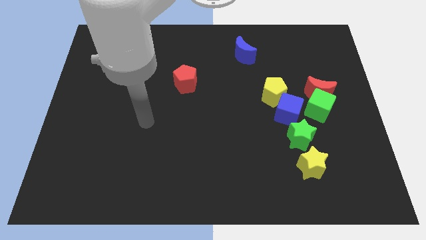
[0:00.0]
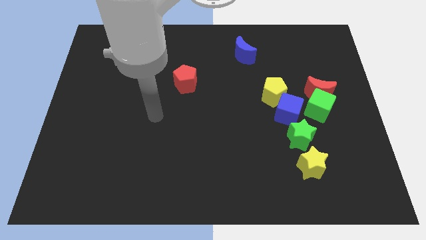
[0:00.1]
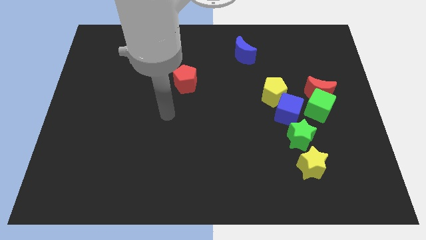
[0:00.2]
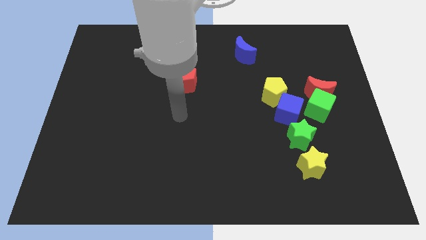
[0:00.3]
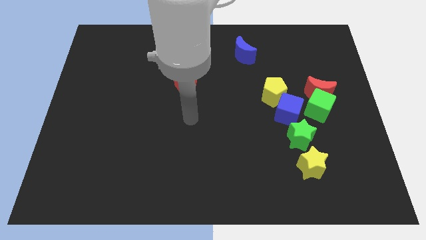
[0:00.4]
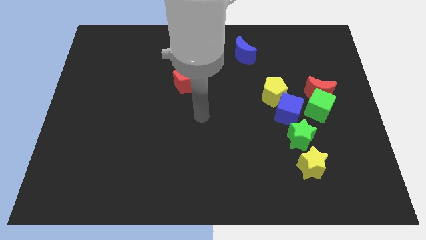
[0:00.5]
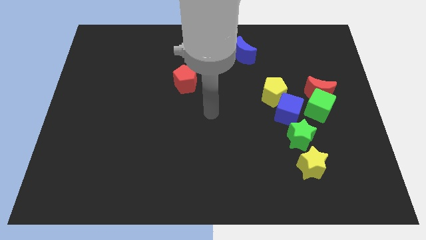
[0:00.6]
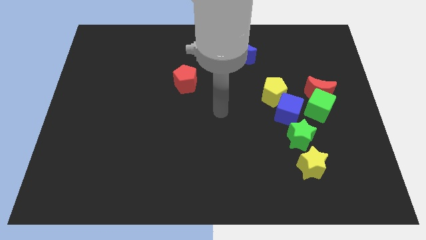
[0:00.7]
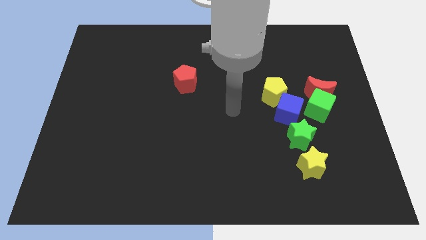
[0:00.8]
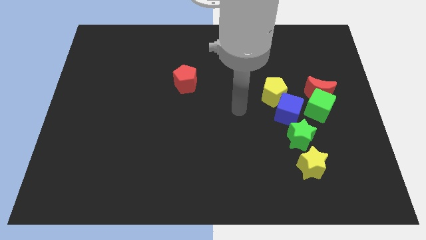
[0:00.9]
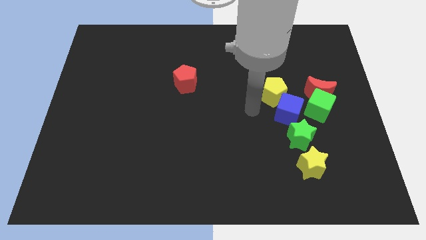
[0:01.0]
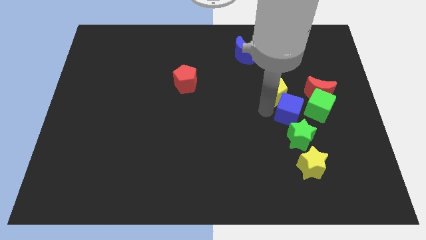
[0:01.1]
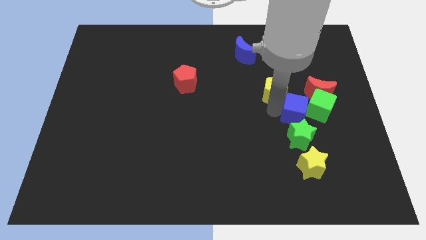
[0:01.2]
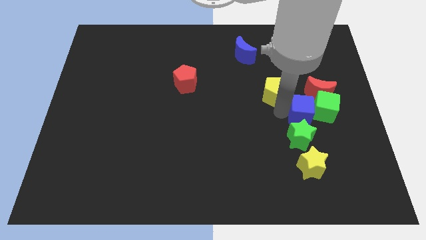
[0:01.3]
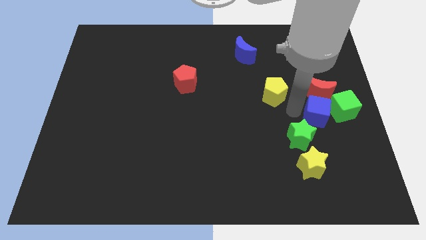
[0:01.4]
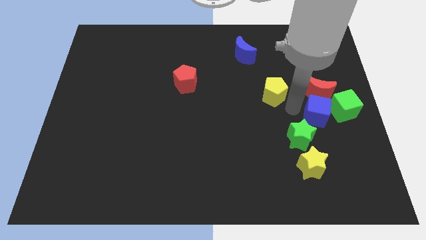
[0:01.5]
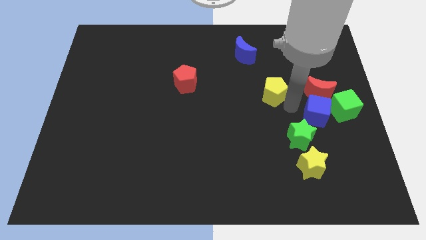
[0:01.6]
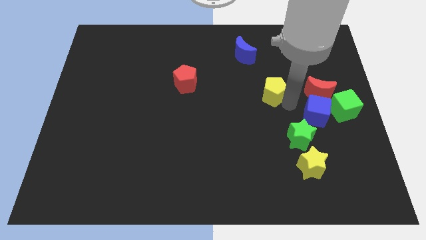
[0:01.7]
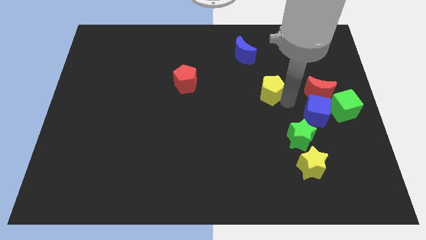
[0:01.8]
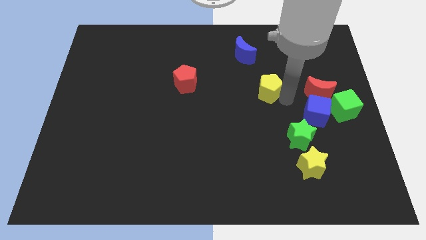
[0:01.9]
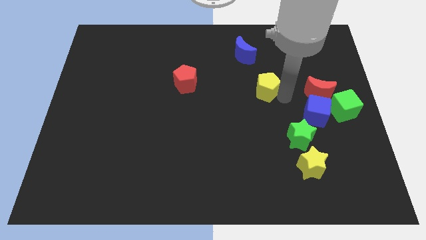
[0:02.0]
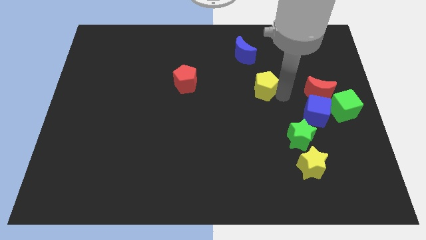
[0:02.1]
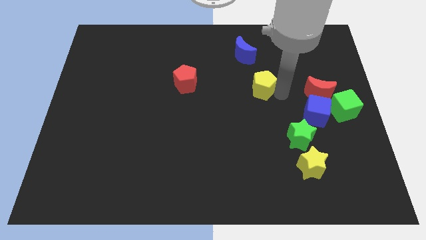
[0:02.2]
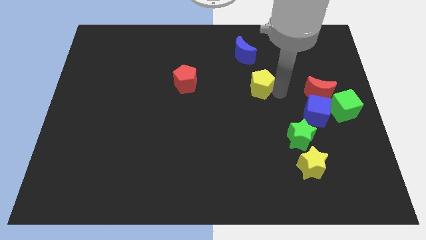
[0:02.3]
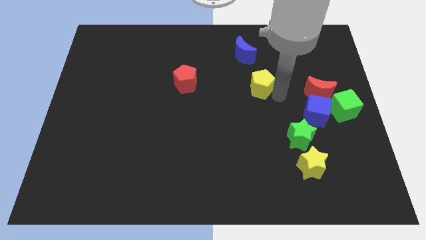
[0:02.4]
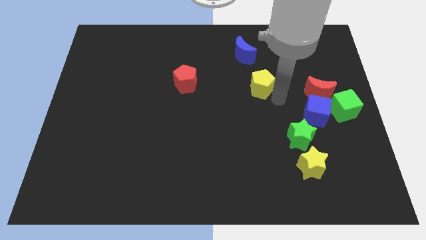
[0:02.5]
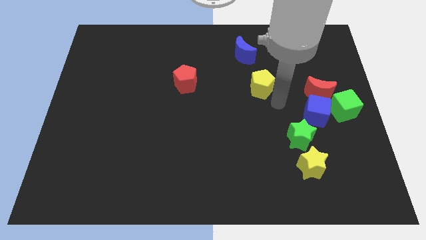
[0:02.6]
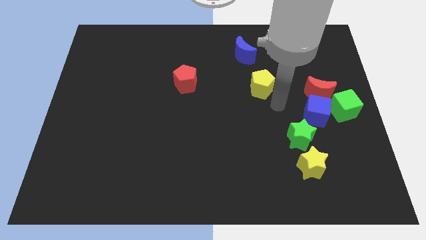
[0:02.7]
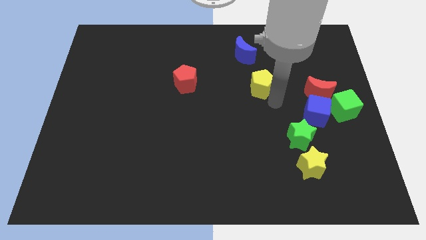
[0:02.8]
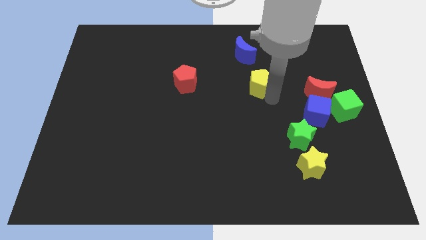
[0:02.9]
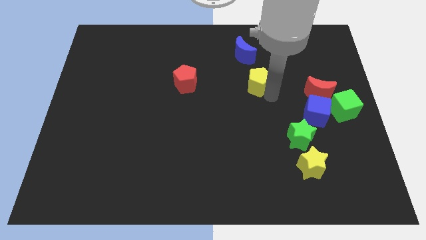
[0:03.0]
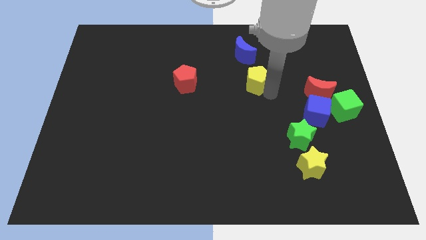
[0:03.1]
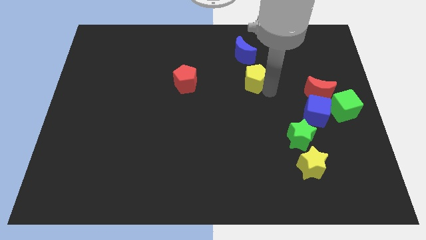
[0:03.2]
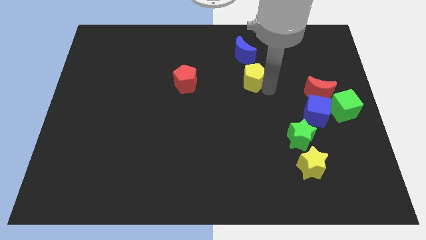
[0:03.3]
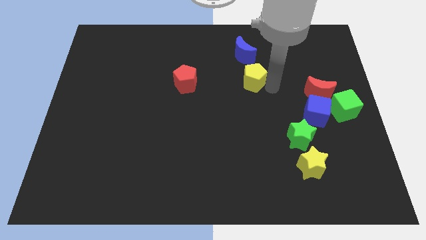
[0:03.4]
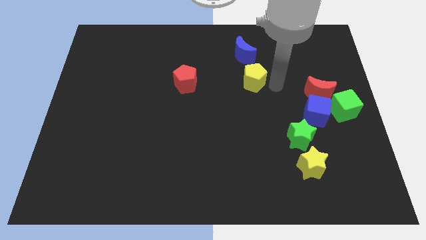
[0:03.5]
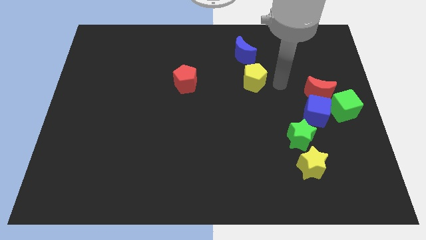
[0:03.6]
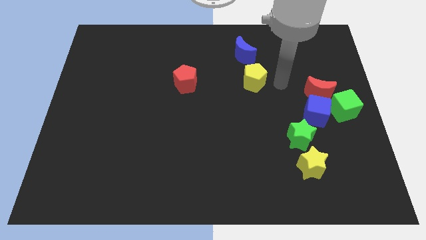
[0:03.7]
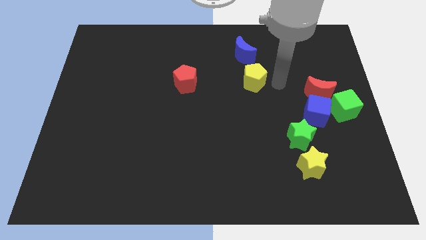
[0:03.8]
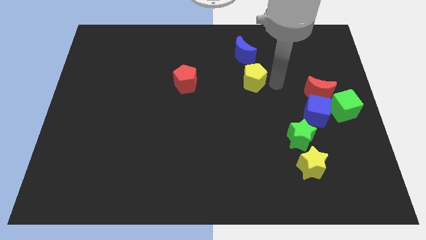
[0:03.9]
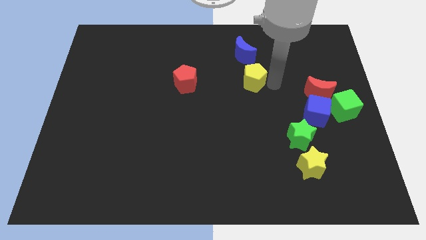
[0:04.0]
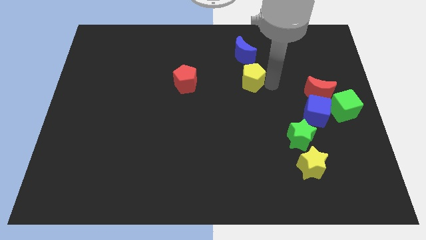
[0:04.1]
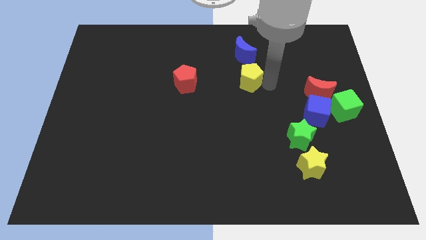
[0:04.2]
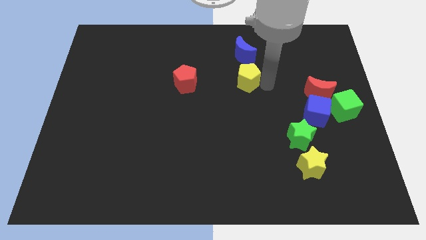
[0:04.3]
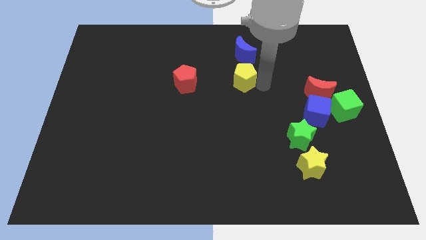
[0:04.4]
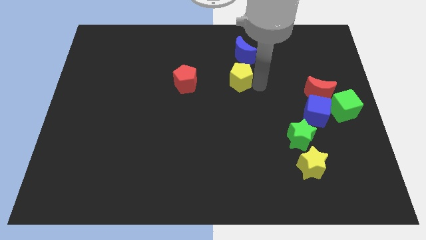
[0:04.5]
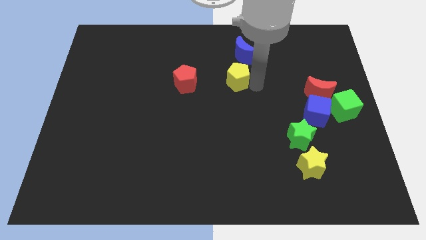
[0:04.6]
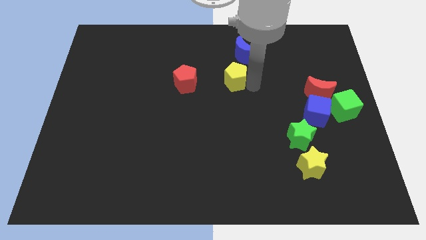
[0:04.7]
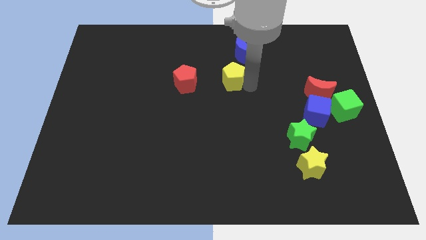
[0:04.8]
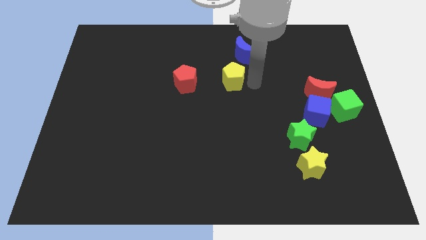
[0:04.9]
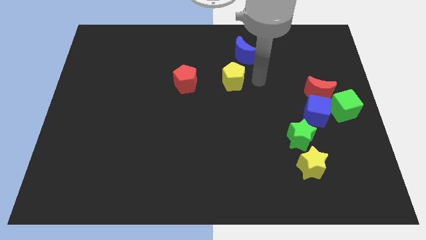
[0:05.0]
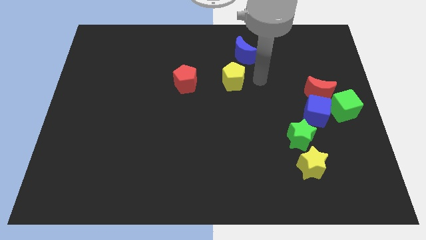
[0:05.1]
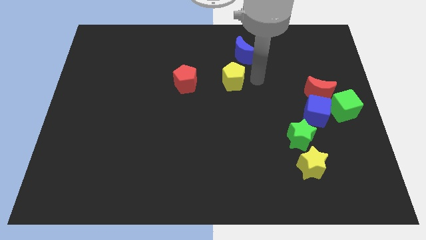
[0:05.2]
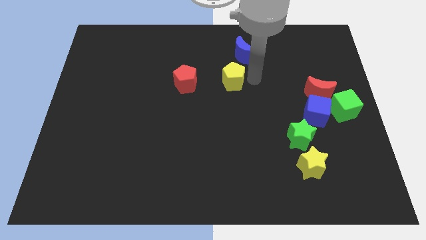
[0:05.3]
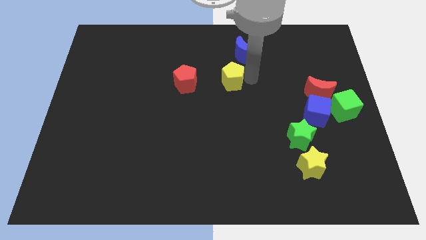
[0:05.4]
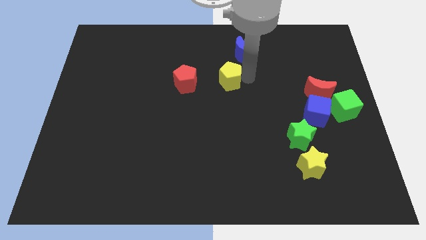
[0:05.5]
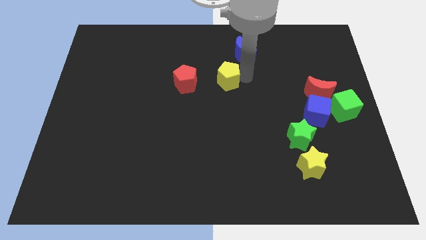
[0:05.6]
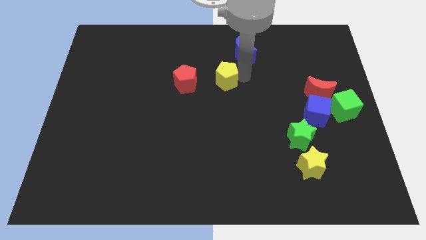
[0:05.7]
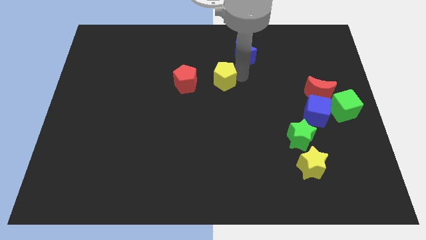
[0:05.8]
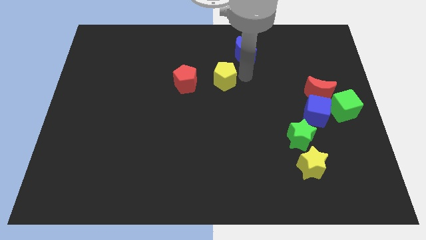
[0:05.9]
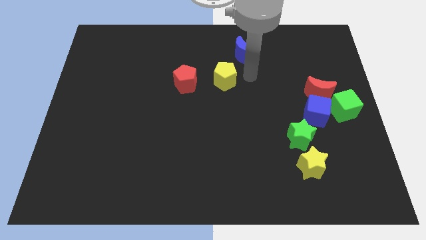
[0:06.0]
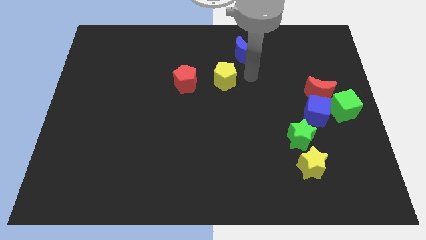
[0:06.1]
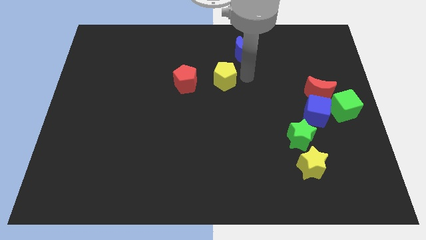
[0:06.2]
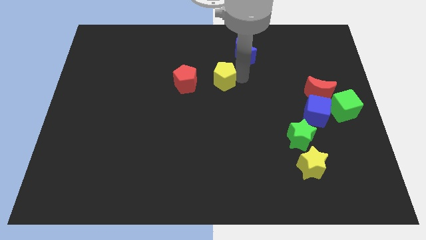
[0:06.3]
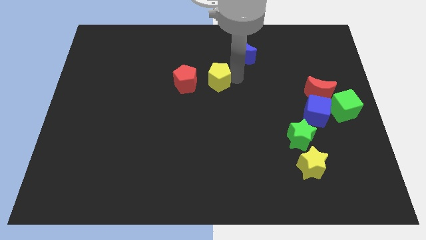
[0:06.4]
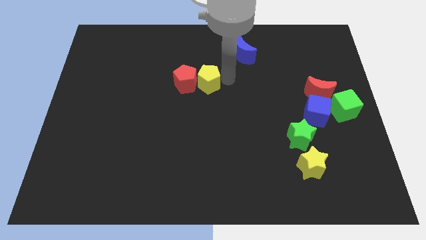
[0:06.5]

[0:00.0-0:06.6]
push the yellow pentagon to the red pentagon

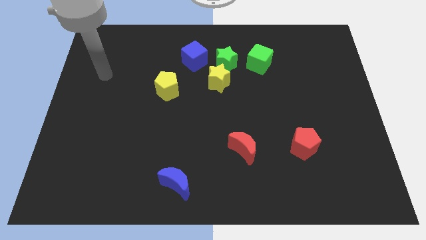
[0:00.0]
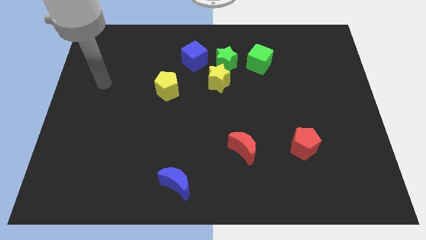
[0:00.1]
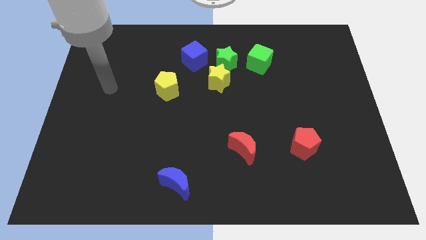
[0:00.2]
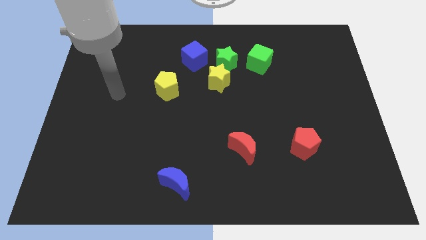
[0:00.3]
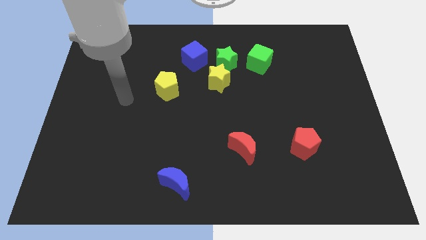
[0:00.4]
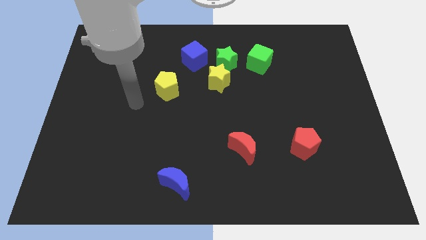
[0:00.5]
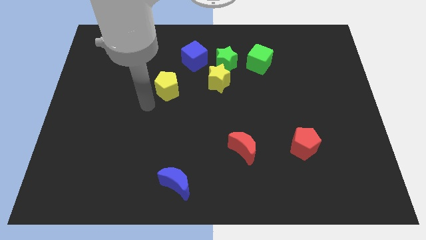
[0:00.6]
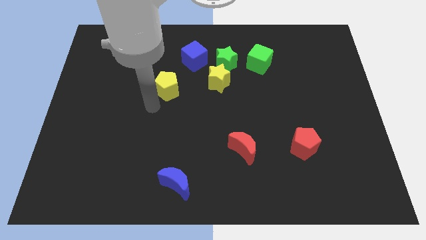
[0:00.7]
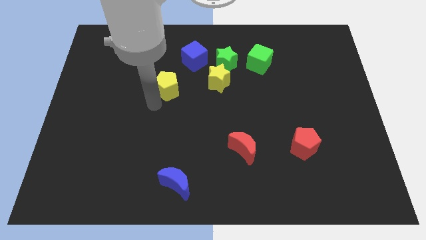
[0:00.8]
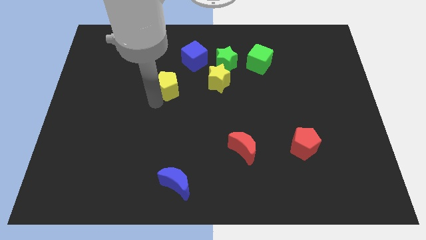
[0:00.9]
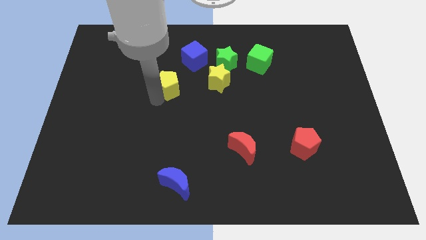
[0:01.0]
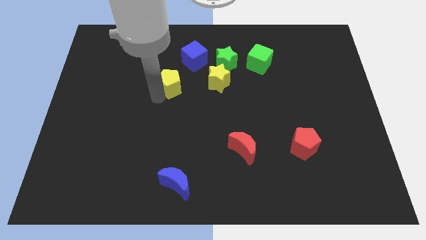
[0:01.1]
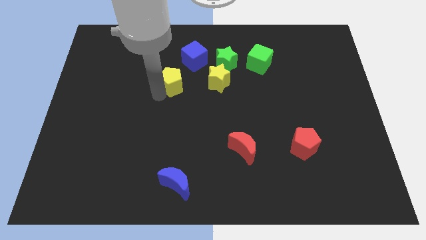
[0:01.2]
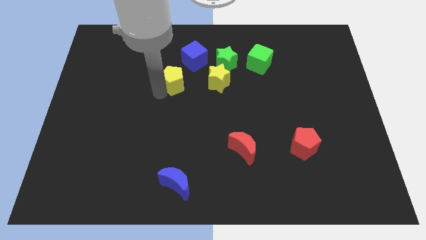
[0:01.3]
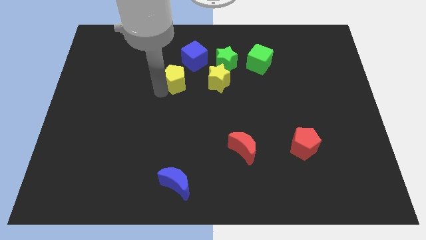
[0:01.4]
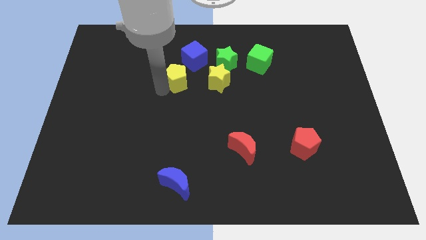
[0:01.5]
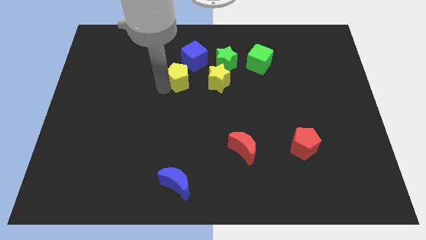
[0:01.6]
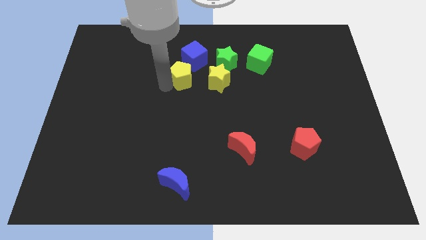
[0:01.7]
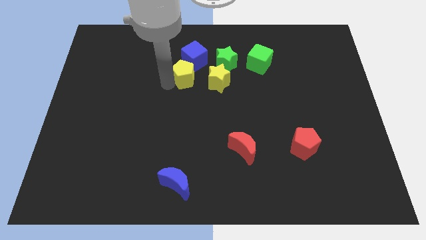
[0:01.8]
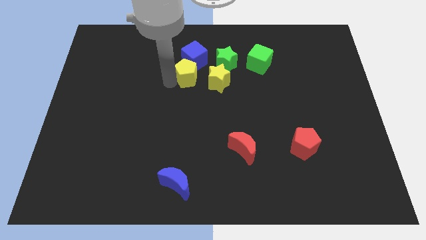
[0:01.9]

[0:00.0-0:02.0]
slide the yellow pentagon towards the blue cube
